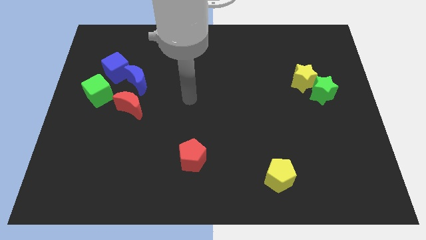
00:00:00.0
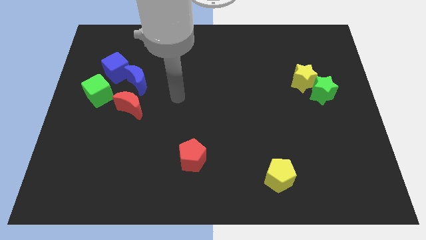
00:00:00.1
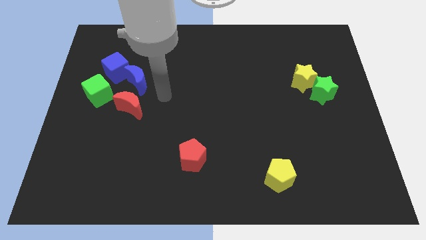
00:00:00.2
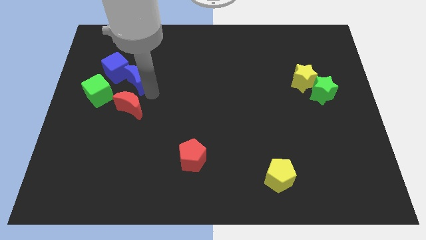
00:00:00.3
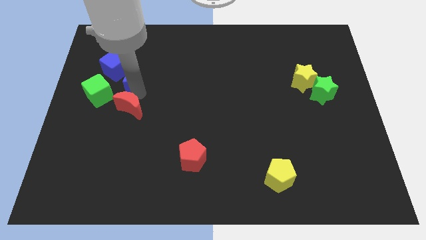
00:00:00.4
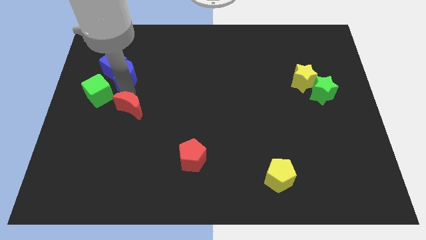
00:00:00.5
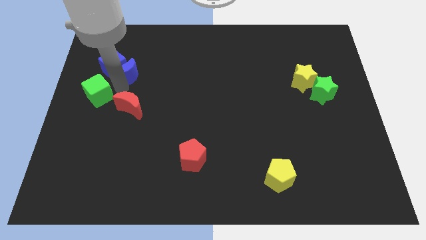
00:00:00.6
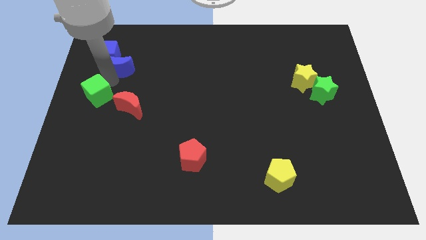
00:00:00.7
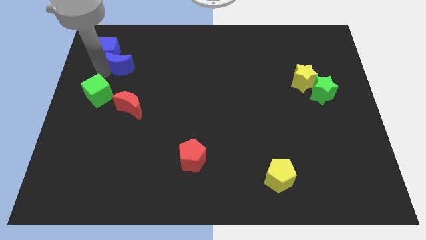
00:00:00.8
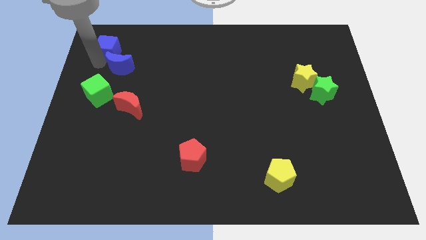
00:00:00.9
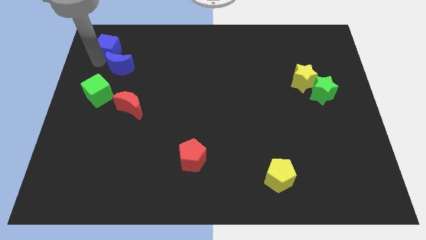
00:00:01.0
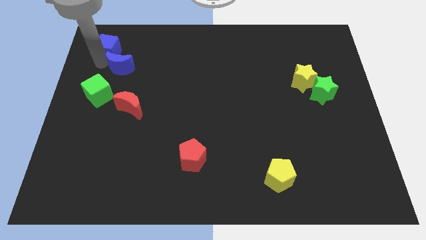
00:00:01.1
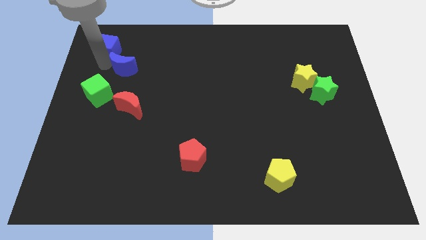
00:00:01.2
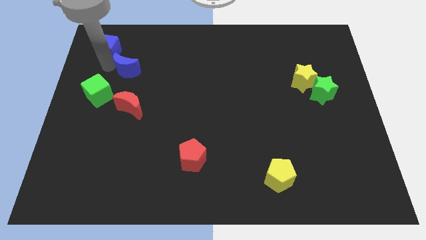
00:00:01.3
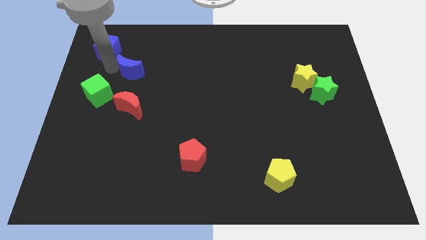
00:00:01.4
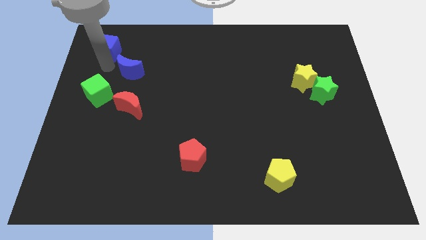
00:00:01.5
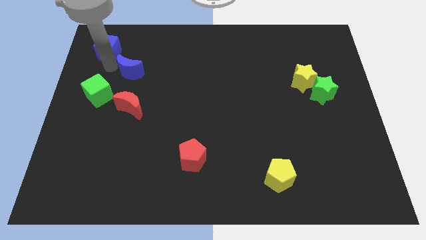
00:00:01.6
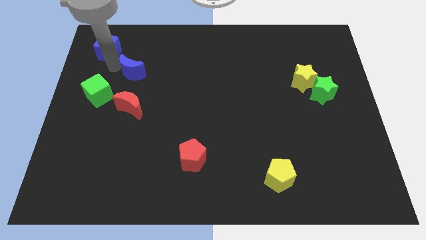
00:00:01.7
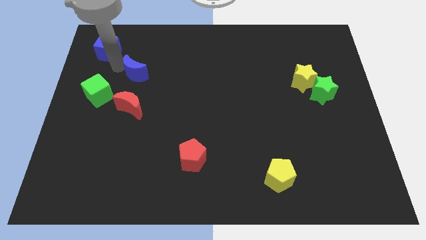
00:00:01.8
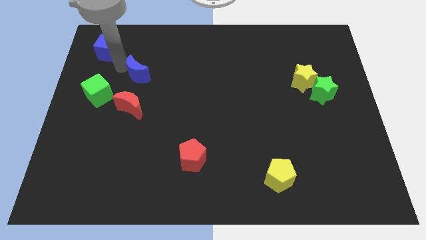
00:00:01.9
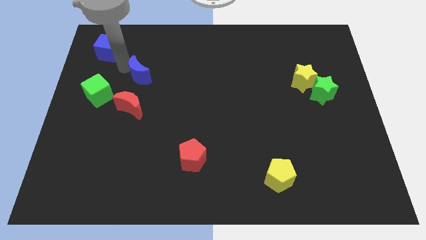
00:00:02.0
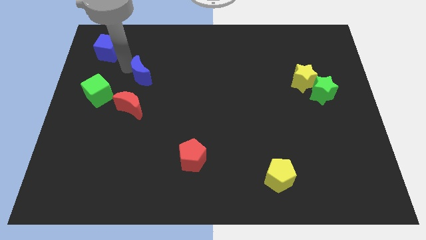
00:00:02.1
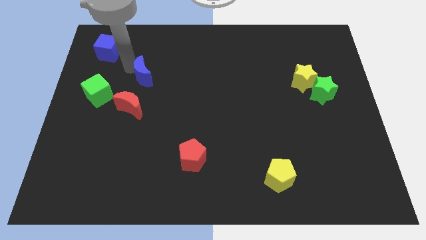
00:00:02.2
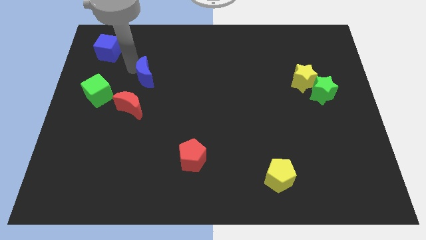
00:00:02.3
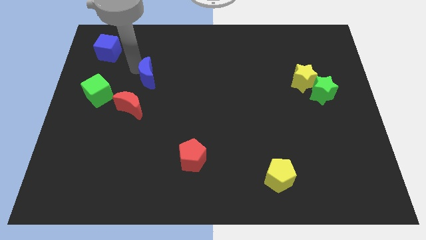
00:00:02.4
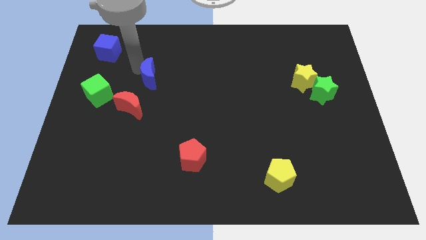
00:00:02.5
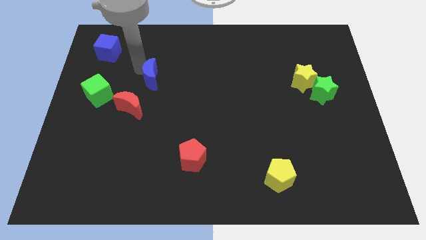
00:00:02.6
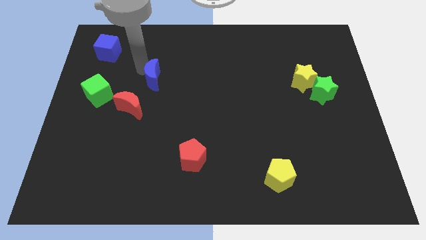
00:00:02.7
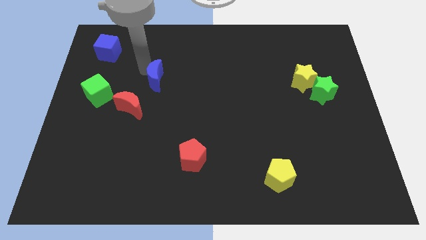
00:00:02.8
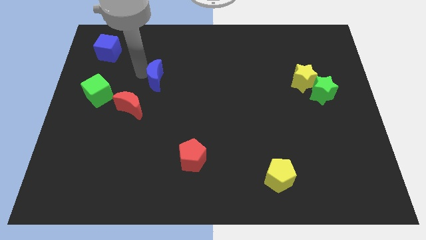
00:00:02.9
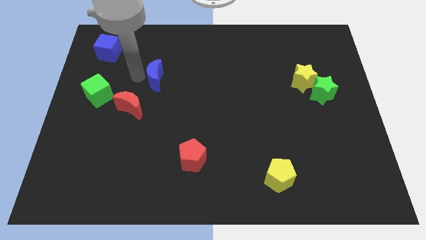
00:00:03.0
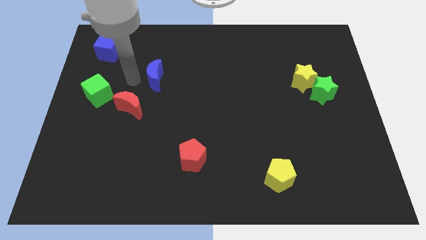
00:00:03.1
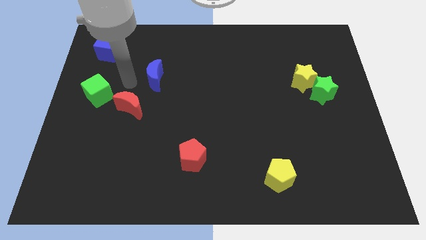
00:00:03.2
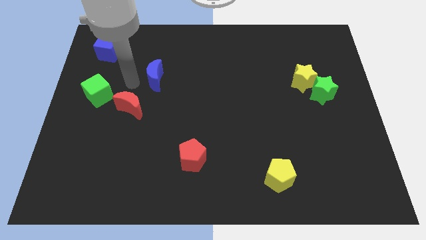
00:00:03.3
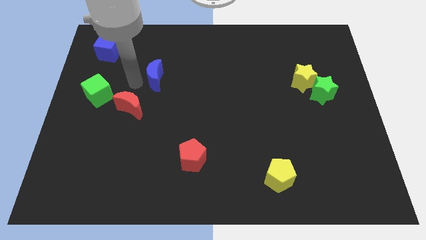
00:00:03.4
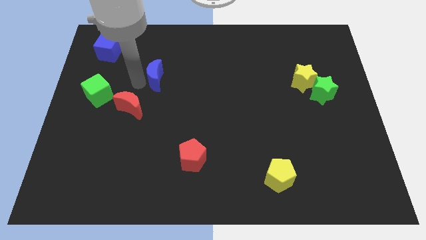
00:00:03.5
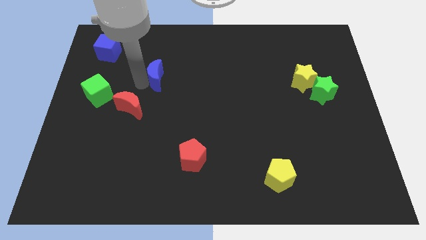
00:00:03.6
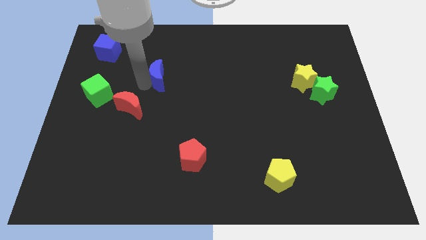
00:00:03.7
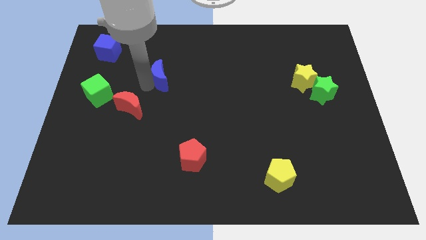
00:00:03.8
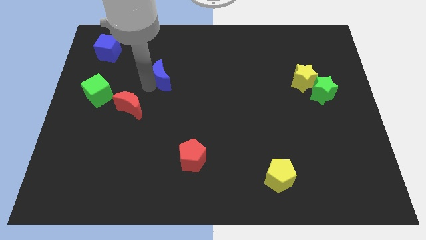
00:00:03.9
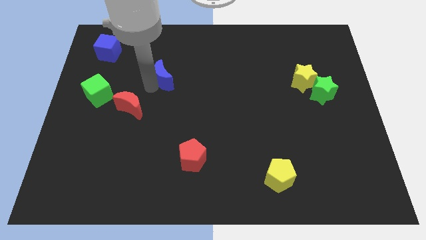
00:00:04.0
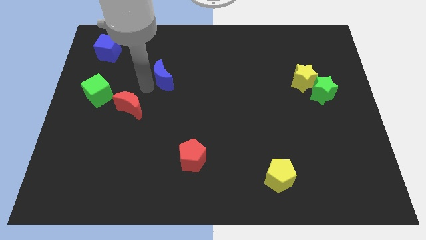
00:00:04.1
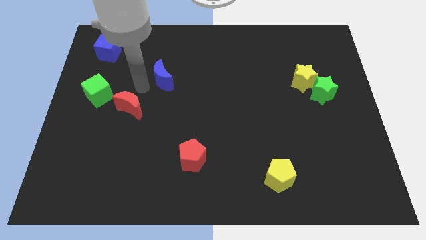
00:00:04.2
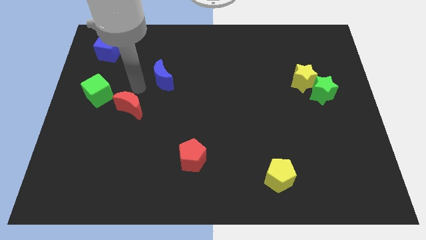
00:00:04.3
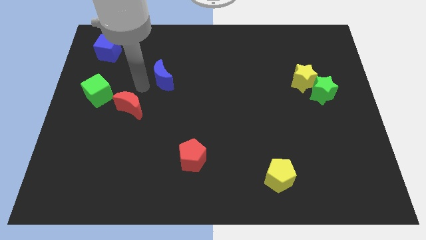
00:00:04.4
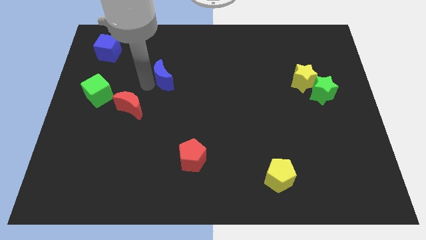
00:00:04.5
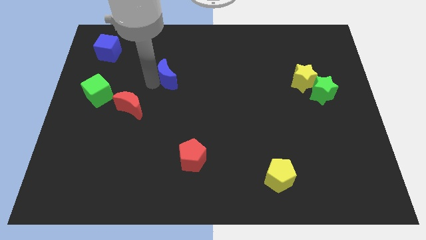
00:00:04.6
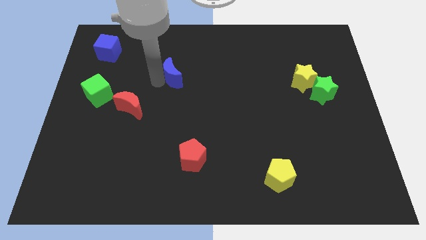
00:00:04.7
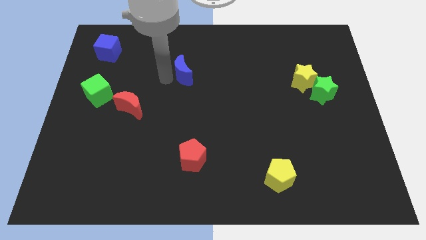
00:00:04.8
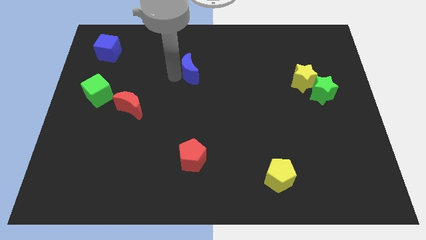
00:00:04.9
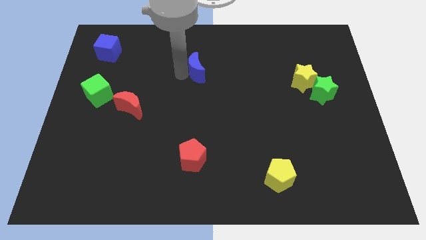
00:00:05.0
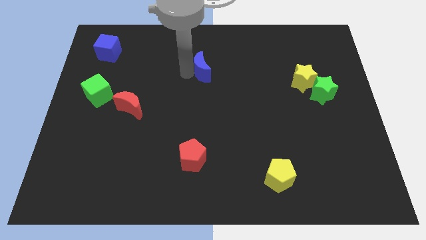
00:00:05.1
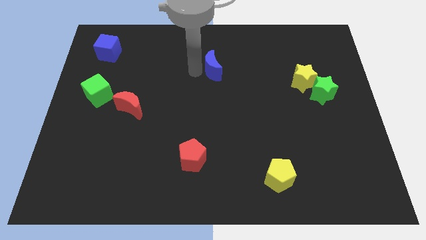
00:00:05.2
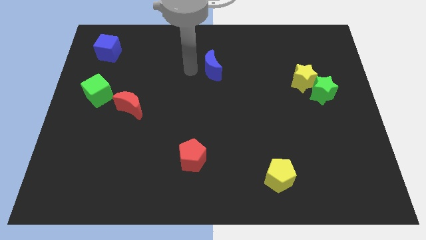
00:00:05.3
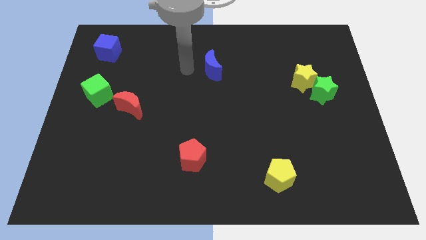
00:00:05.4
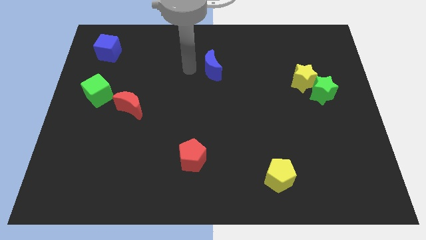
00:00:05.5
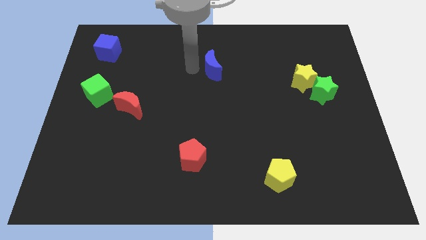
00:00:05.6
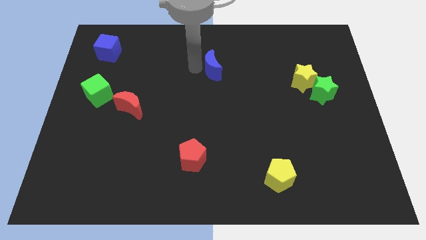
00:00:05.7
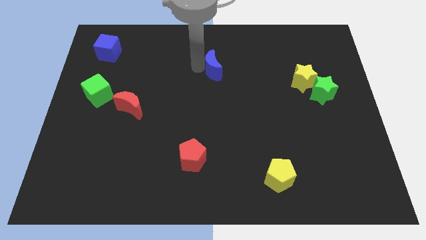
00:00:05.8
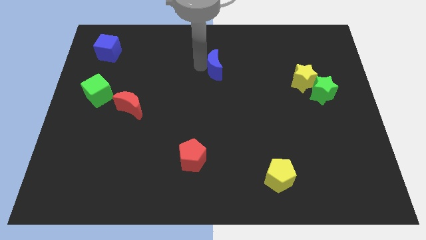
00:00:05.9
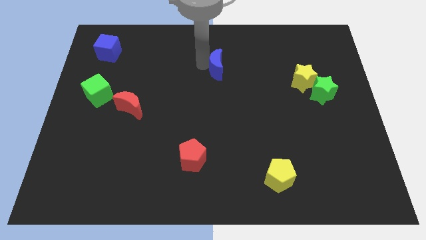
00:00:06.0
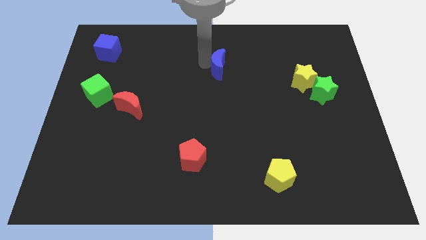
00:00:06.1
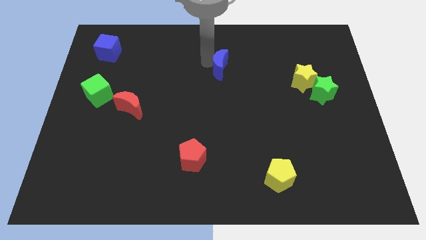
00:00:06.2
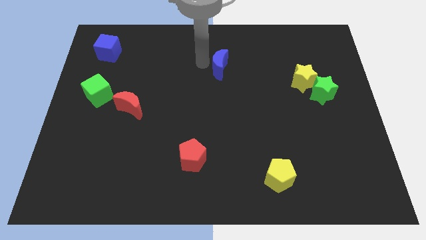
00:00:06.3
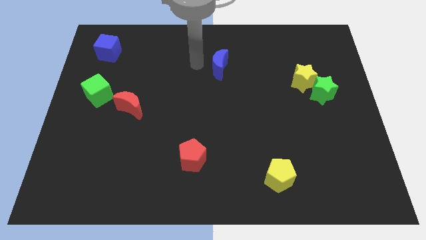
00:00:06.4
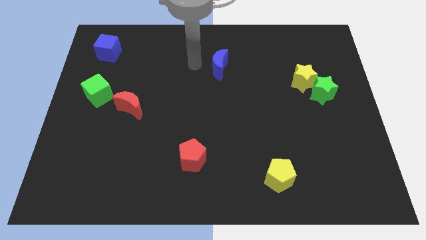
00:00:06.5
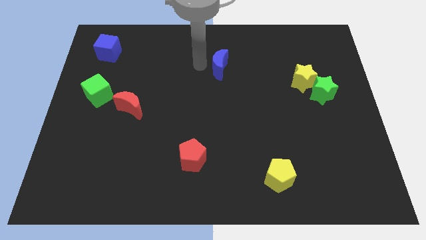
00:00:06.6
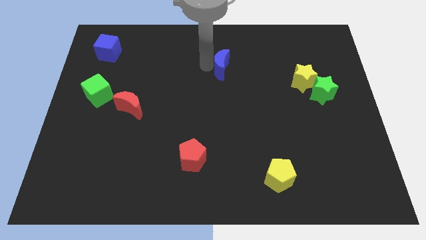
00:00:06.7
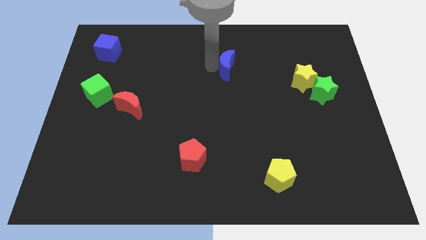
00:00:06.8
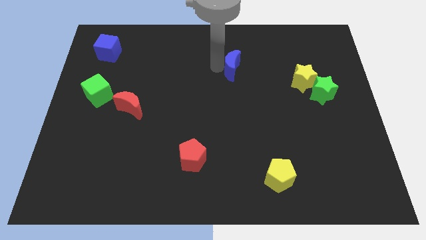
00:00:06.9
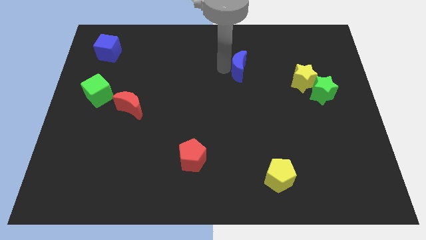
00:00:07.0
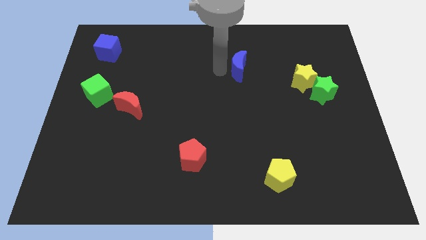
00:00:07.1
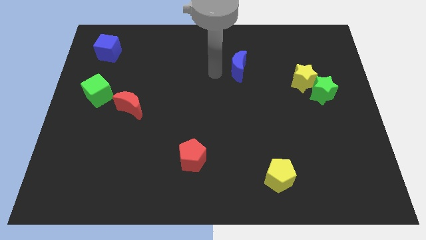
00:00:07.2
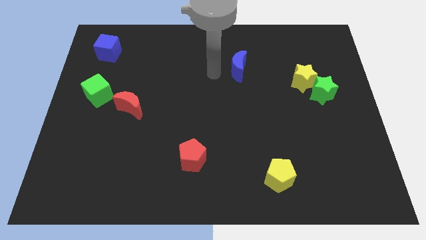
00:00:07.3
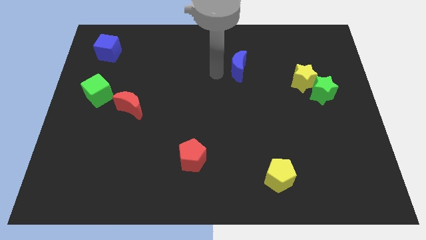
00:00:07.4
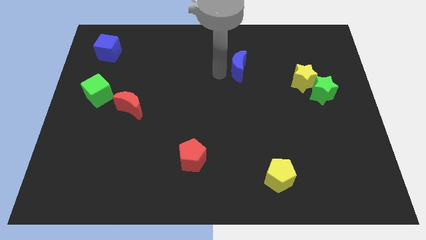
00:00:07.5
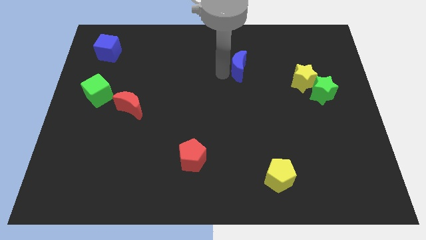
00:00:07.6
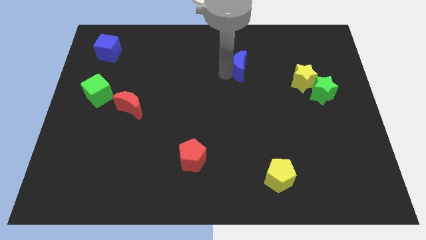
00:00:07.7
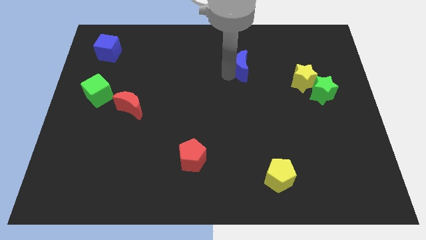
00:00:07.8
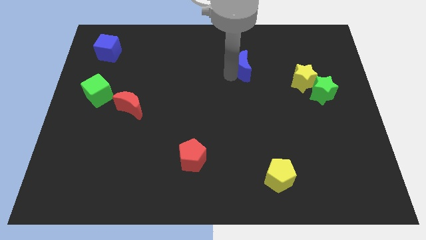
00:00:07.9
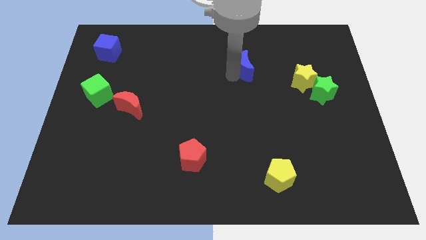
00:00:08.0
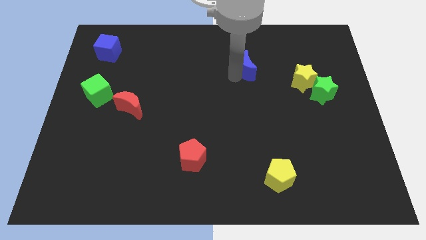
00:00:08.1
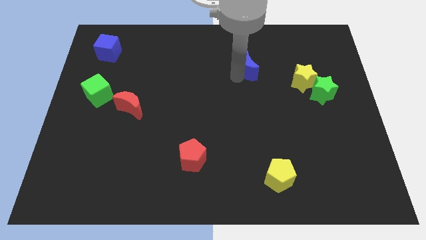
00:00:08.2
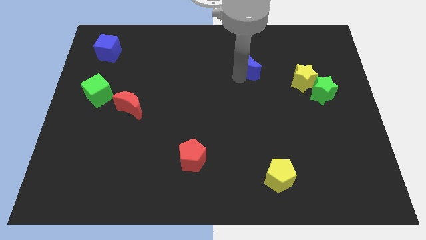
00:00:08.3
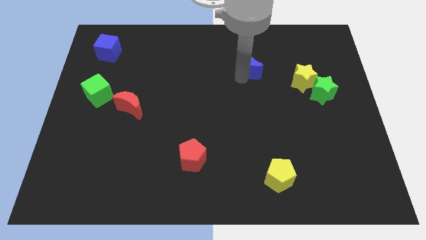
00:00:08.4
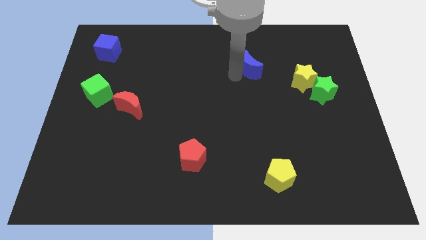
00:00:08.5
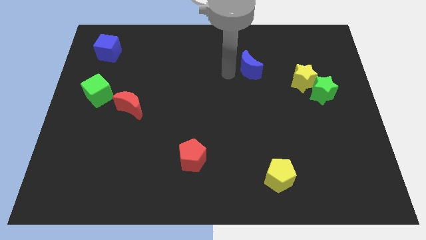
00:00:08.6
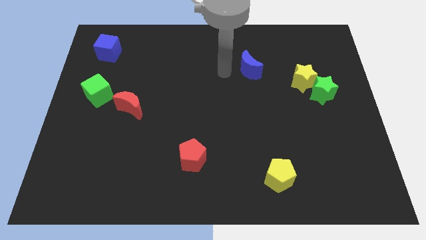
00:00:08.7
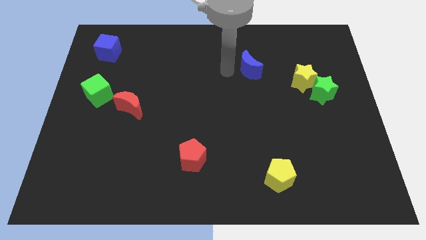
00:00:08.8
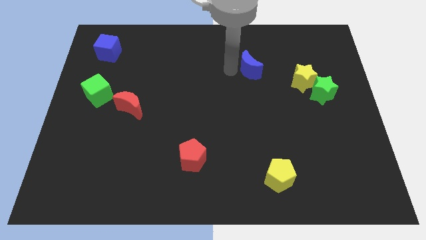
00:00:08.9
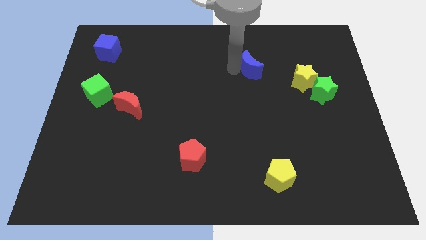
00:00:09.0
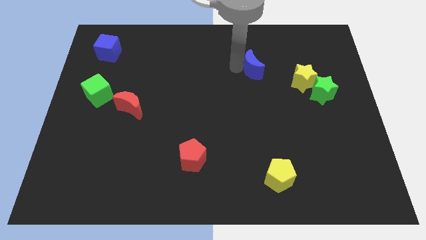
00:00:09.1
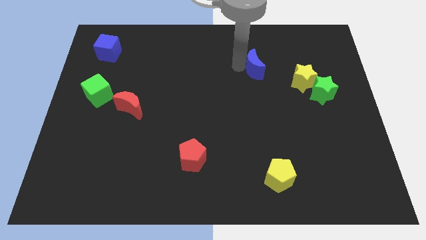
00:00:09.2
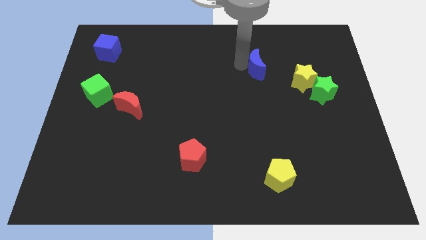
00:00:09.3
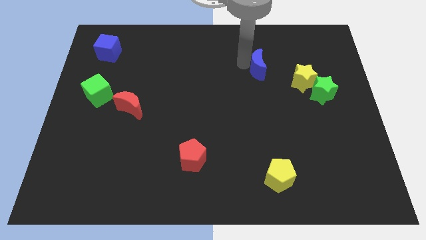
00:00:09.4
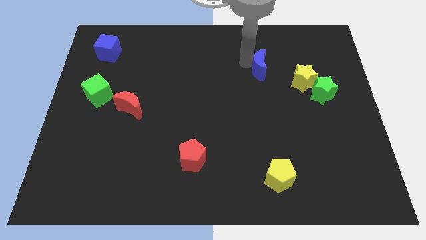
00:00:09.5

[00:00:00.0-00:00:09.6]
put the blue moon to the top left side of the yellow star
